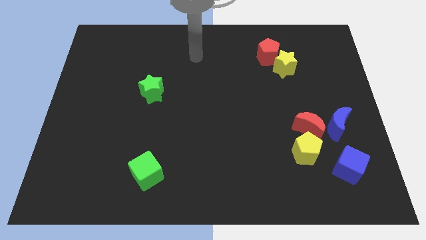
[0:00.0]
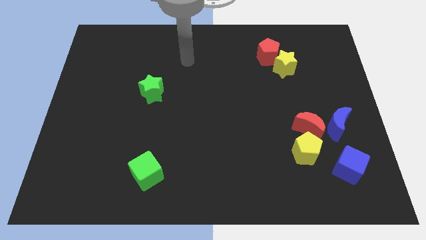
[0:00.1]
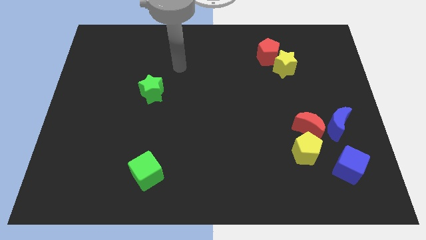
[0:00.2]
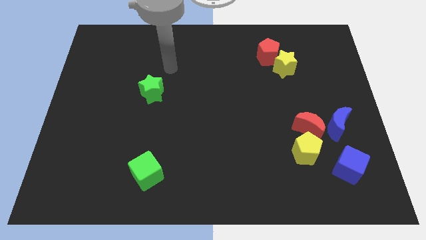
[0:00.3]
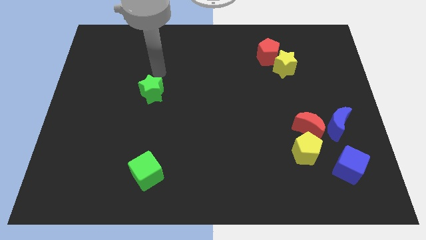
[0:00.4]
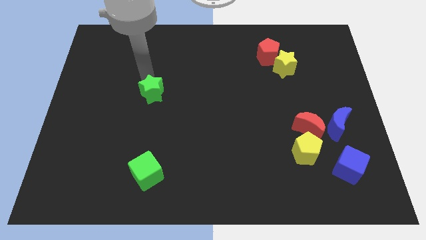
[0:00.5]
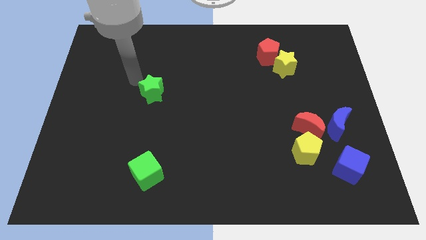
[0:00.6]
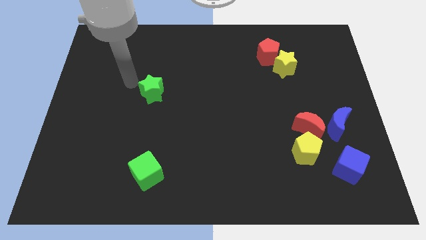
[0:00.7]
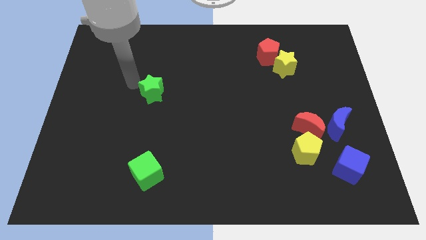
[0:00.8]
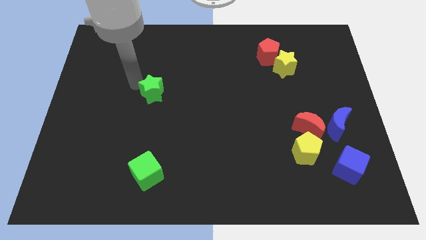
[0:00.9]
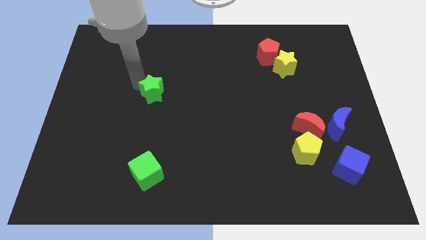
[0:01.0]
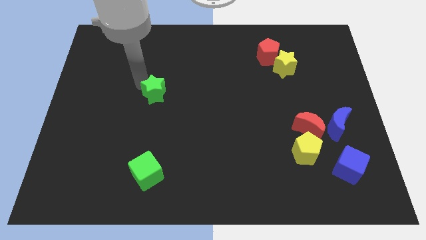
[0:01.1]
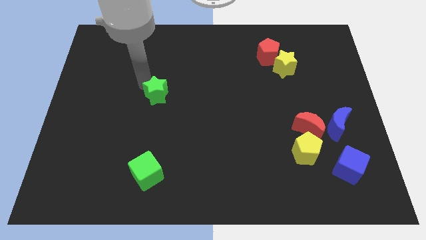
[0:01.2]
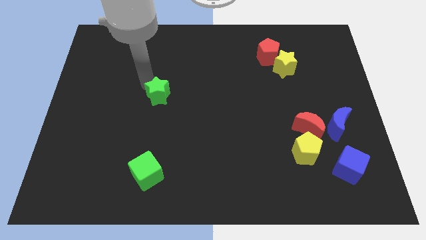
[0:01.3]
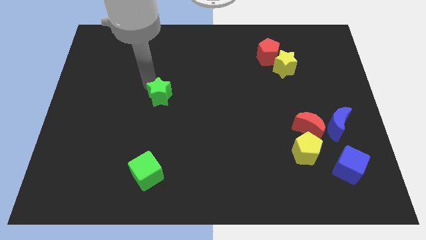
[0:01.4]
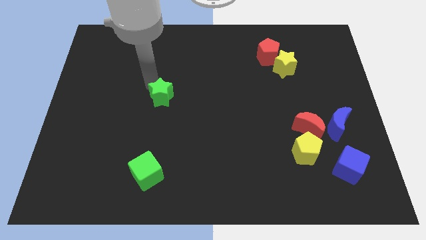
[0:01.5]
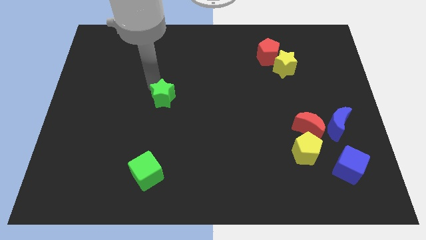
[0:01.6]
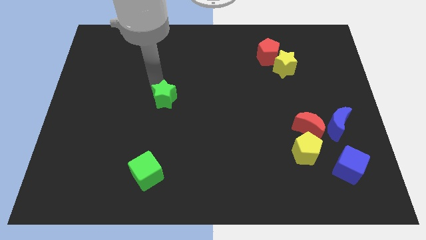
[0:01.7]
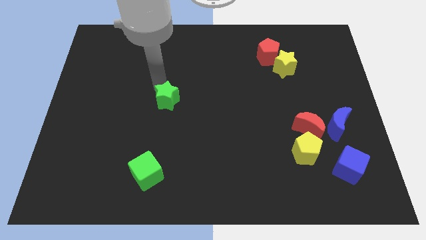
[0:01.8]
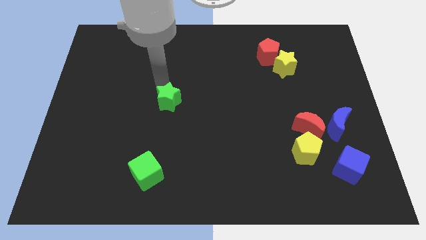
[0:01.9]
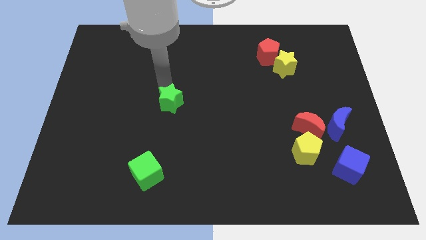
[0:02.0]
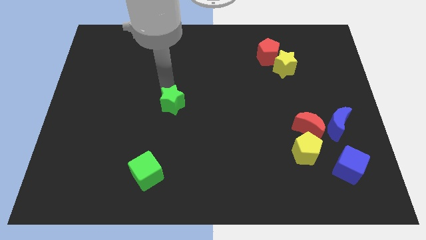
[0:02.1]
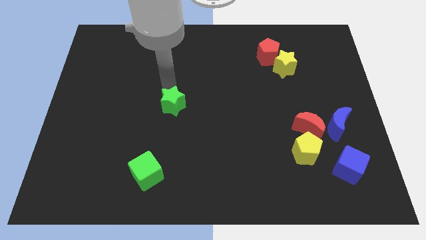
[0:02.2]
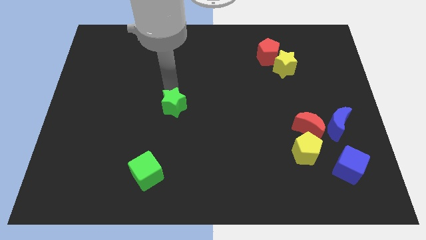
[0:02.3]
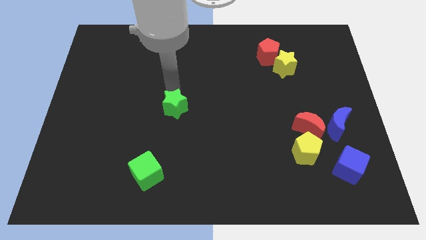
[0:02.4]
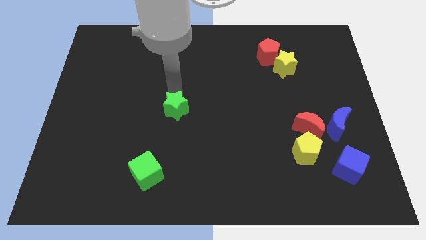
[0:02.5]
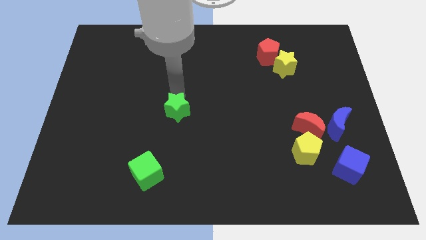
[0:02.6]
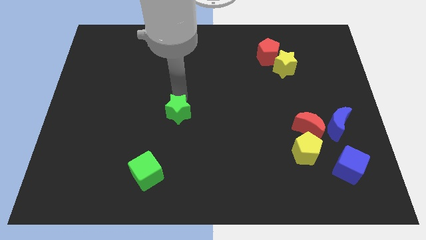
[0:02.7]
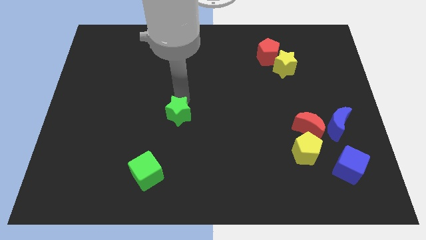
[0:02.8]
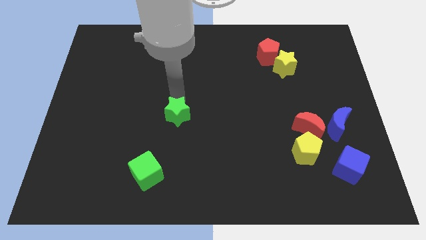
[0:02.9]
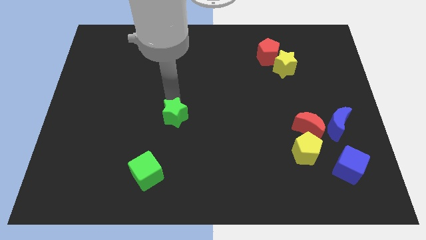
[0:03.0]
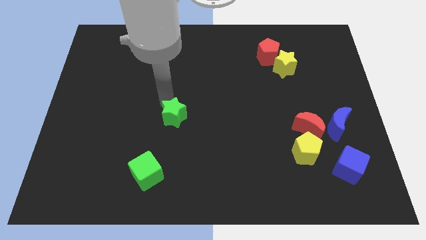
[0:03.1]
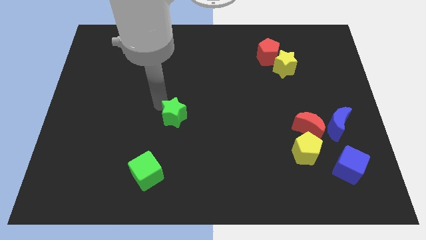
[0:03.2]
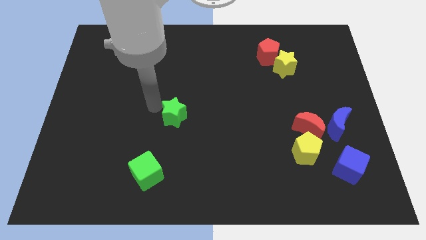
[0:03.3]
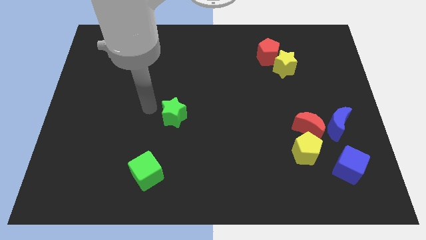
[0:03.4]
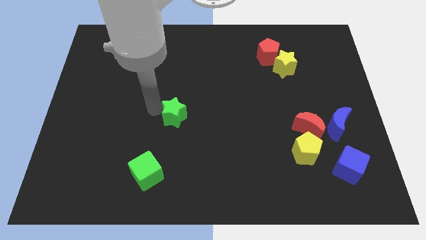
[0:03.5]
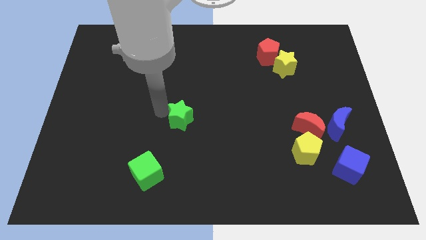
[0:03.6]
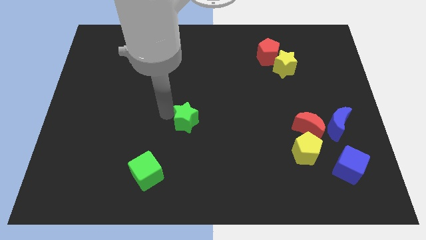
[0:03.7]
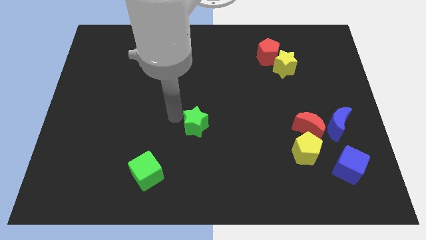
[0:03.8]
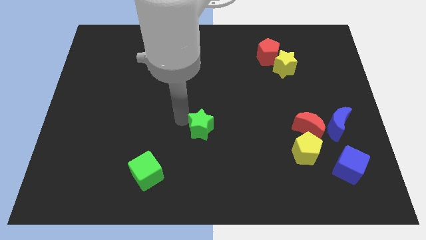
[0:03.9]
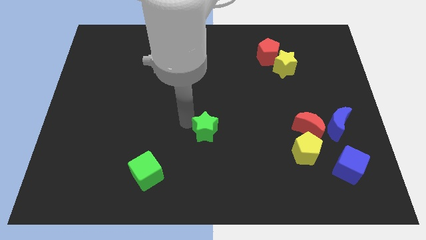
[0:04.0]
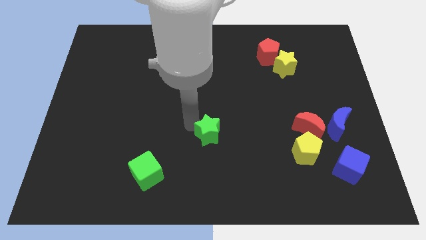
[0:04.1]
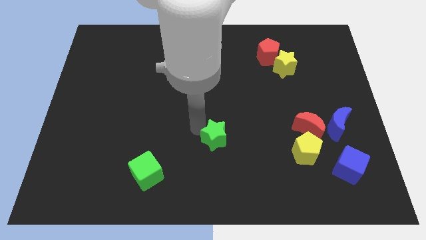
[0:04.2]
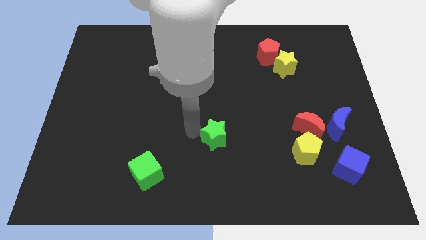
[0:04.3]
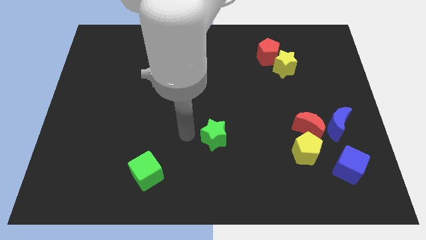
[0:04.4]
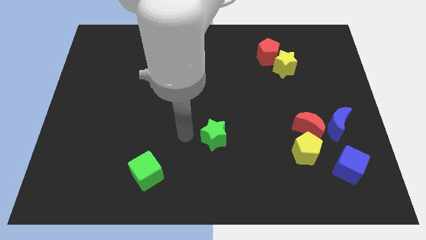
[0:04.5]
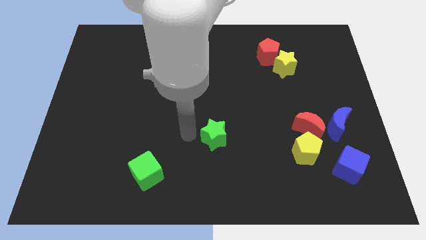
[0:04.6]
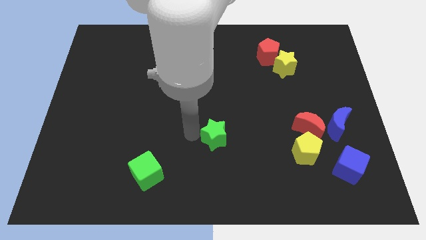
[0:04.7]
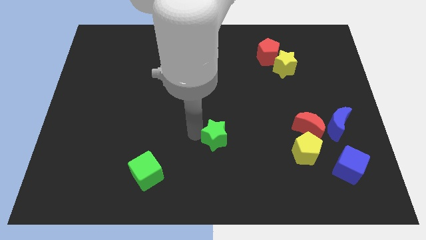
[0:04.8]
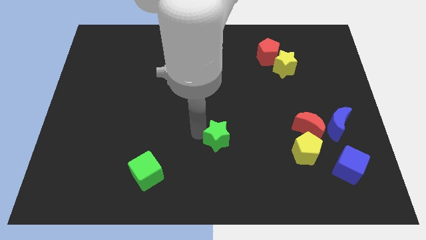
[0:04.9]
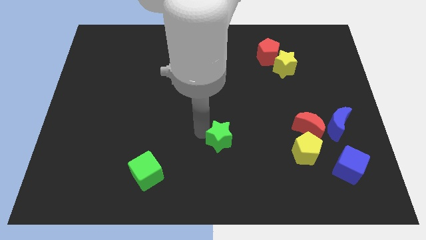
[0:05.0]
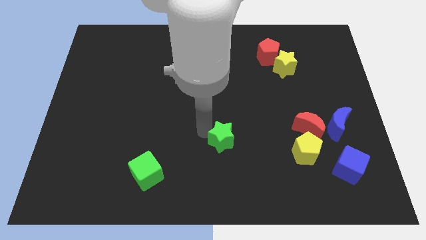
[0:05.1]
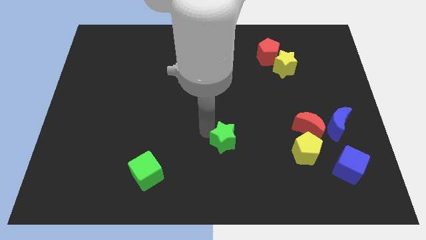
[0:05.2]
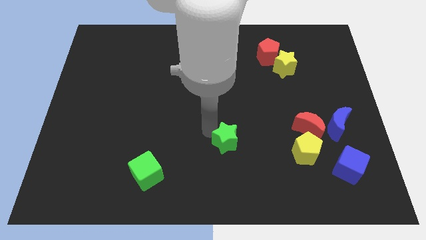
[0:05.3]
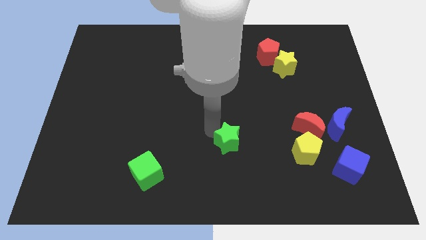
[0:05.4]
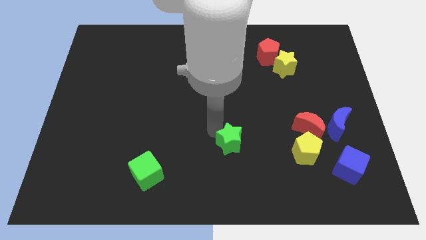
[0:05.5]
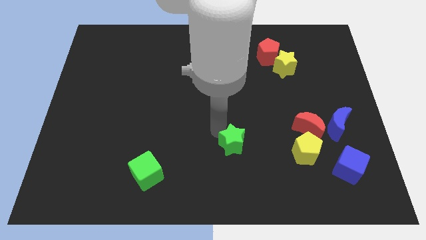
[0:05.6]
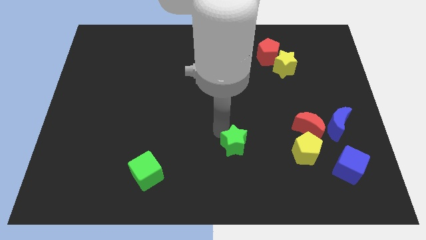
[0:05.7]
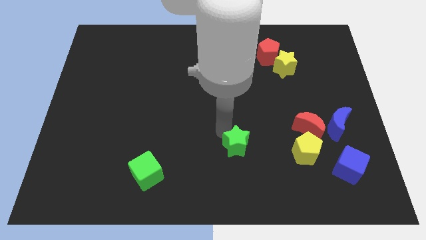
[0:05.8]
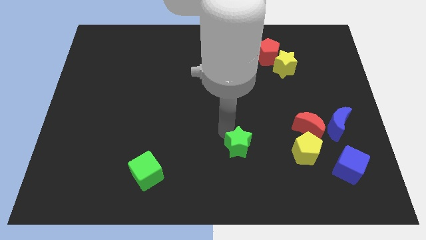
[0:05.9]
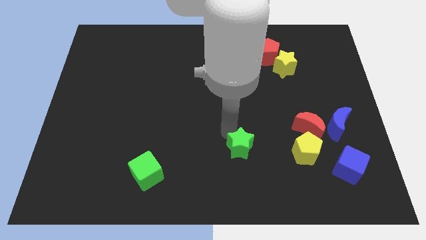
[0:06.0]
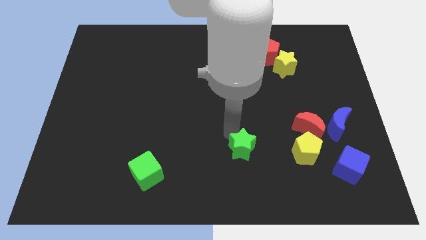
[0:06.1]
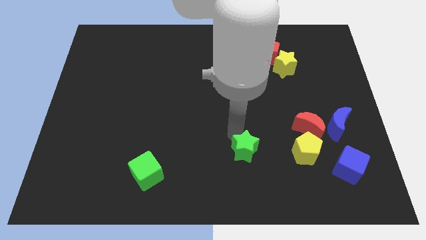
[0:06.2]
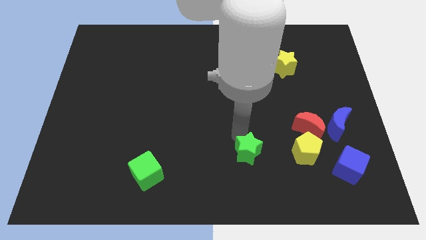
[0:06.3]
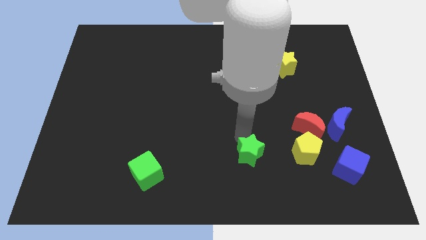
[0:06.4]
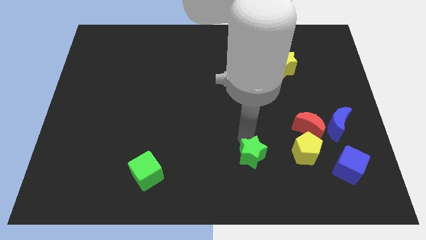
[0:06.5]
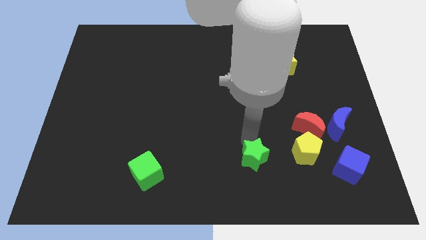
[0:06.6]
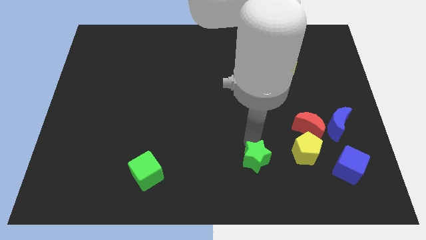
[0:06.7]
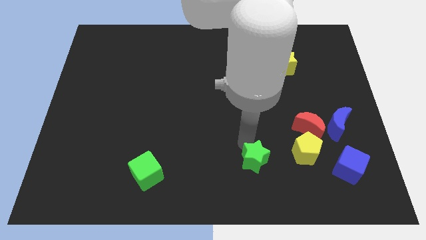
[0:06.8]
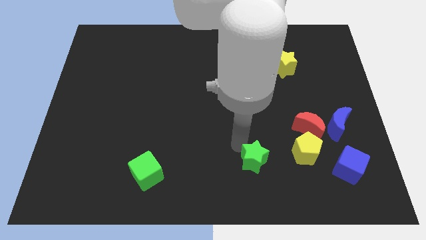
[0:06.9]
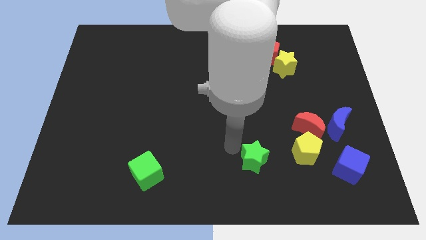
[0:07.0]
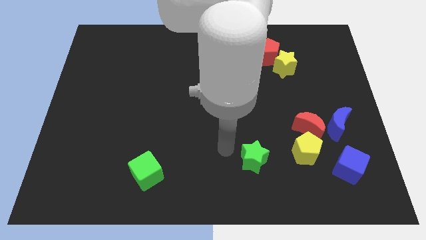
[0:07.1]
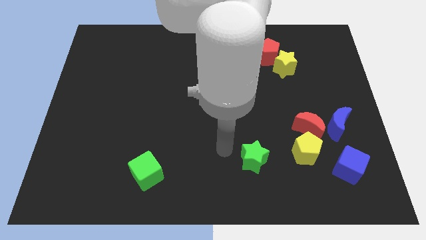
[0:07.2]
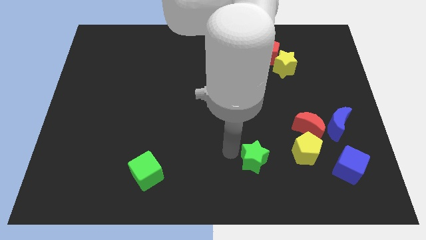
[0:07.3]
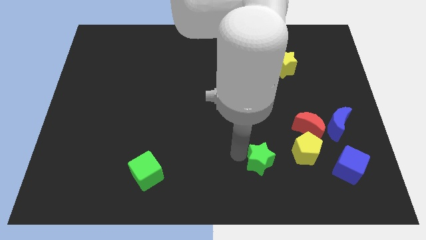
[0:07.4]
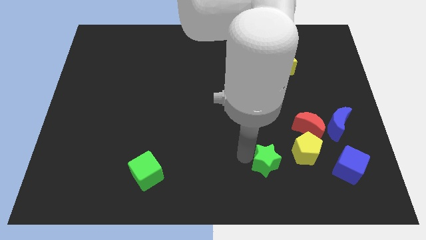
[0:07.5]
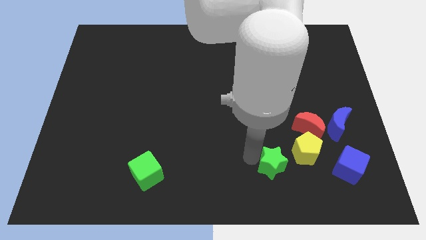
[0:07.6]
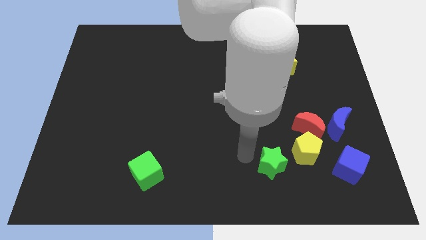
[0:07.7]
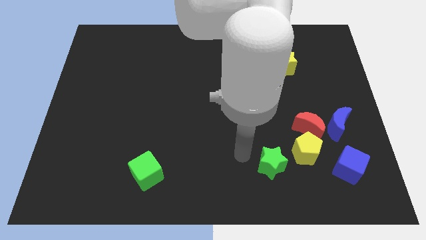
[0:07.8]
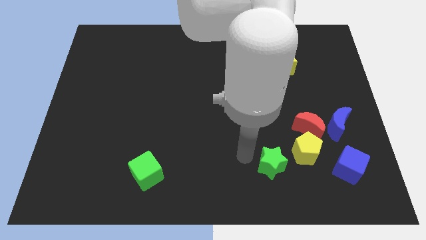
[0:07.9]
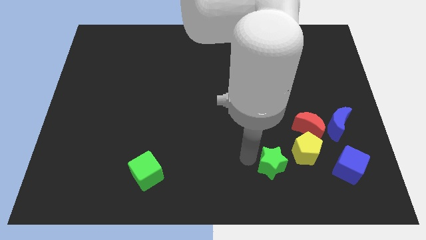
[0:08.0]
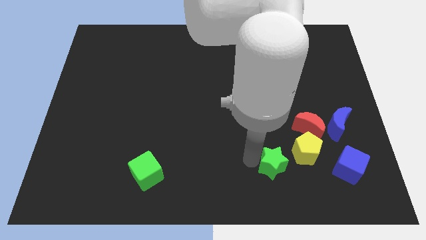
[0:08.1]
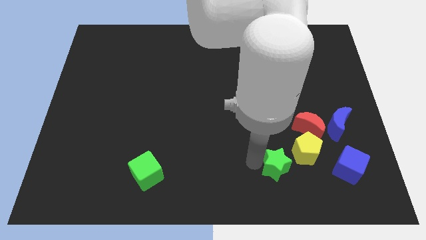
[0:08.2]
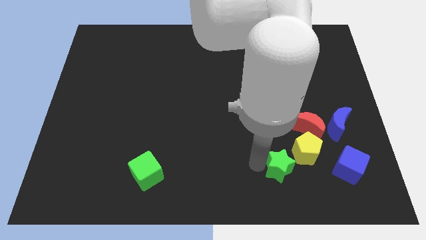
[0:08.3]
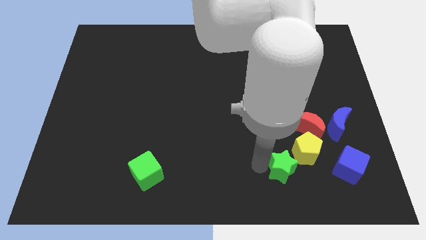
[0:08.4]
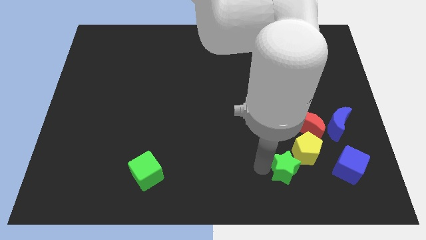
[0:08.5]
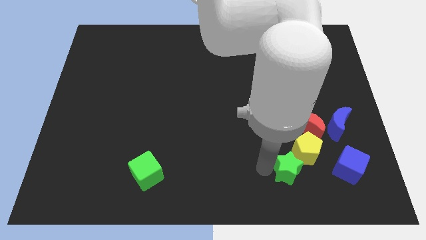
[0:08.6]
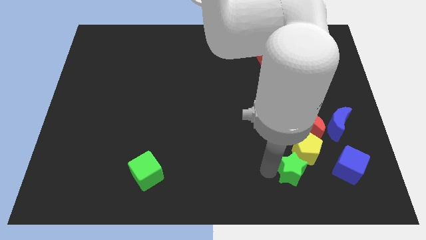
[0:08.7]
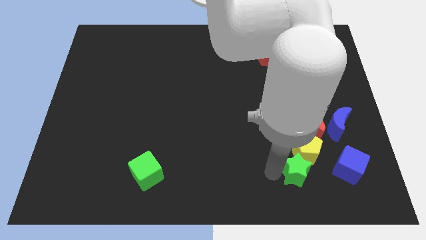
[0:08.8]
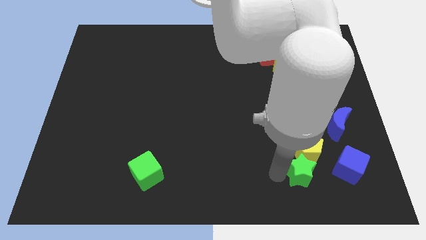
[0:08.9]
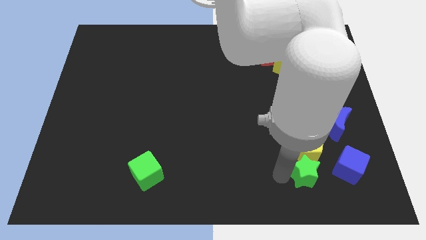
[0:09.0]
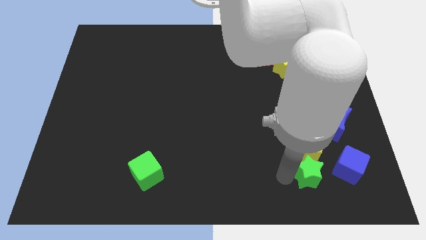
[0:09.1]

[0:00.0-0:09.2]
put the green star to the bottom right of the yellow pentagon
